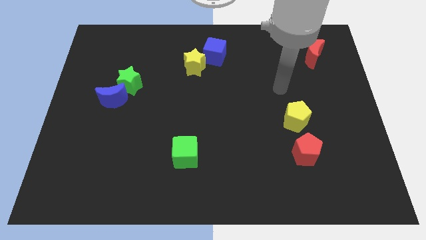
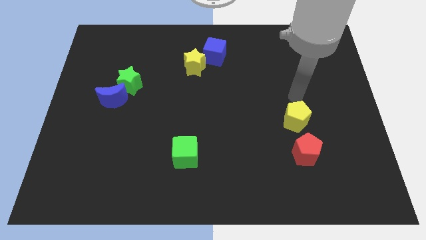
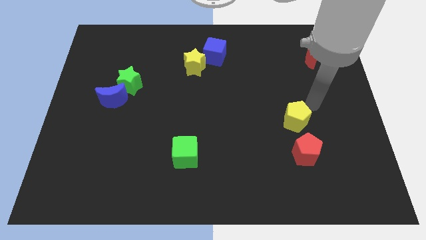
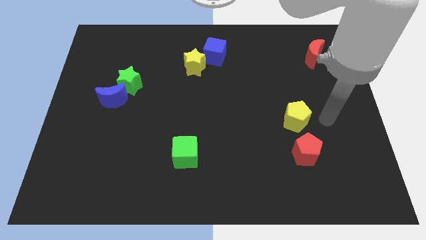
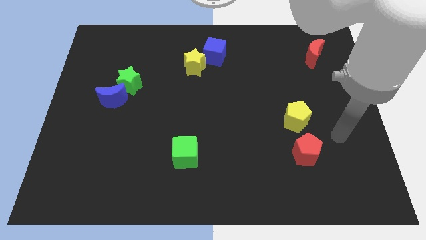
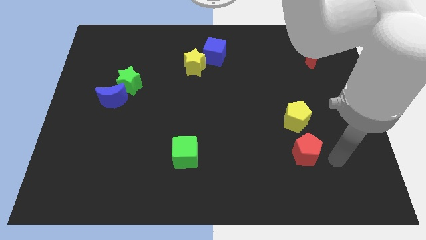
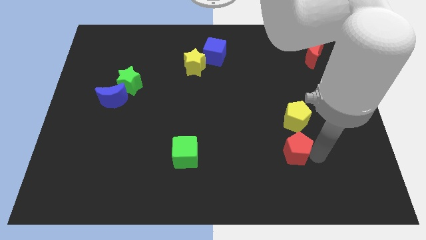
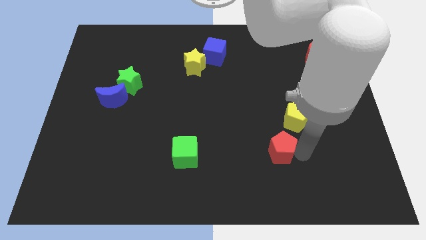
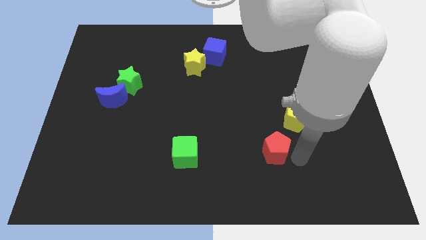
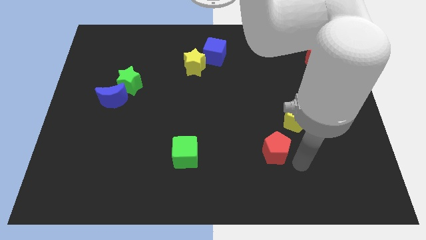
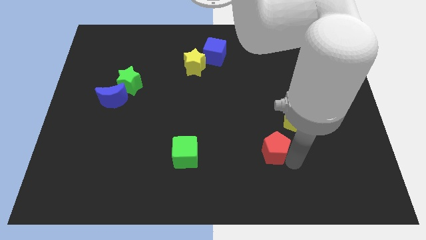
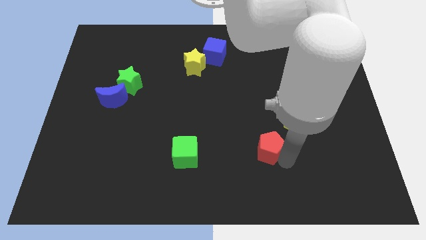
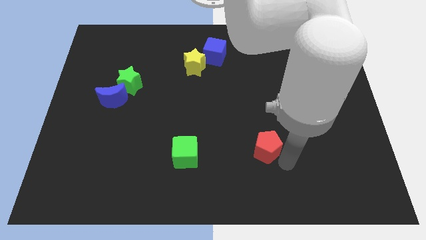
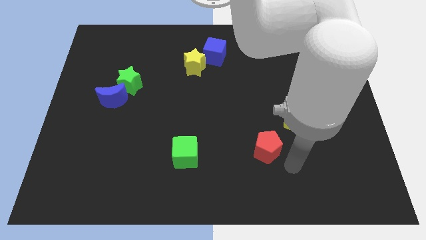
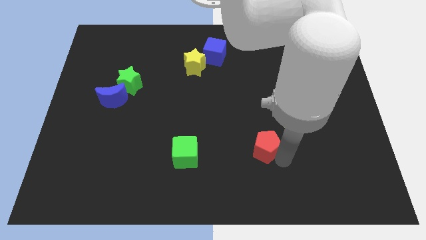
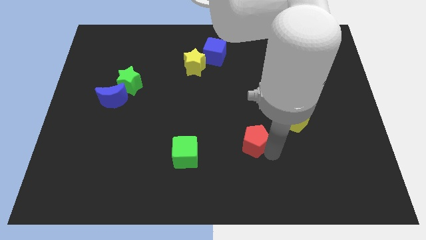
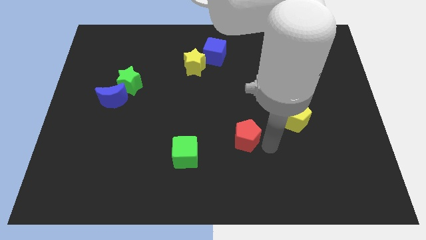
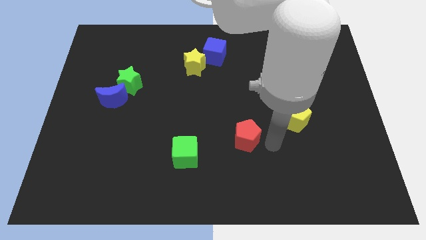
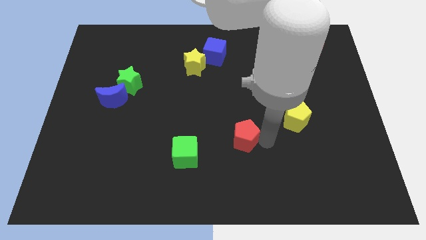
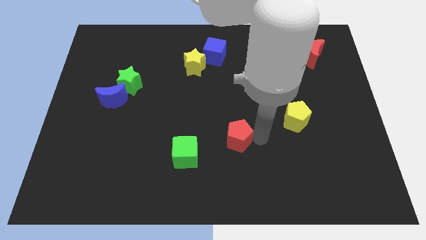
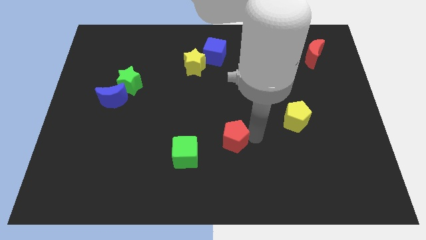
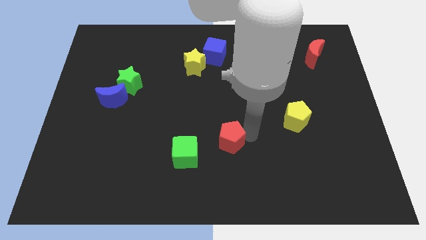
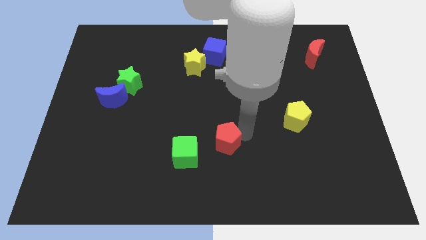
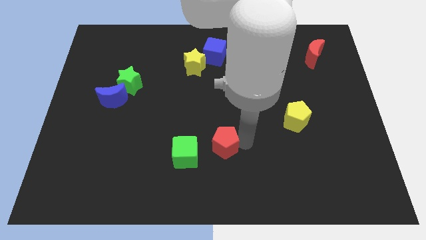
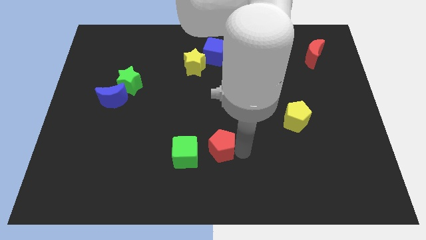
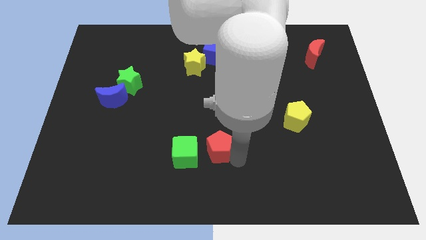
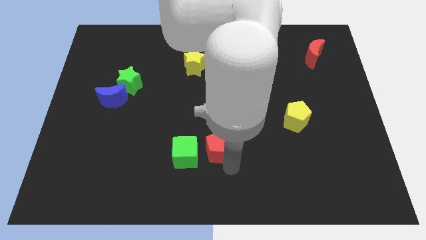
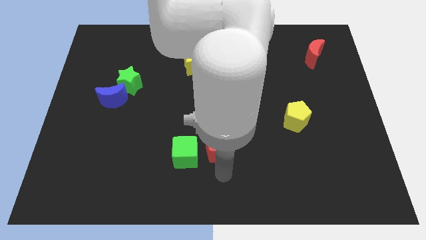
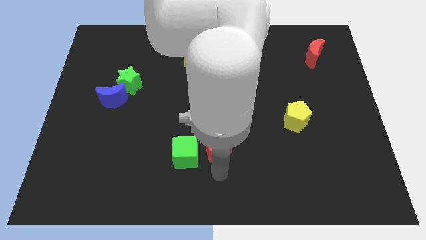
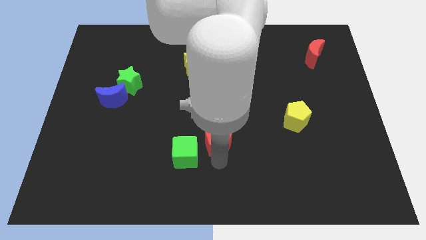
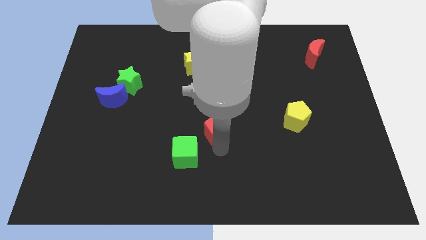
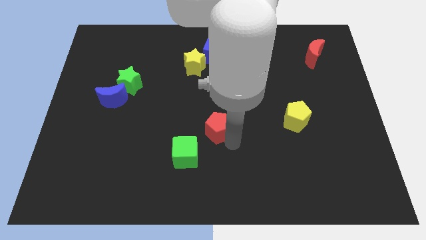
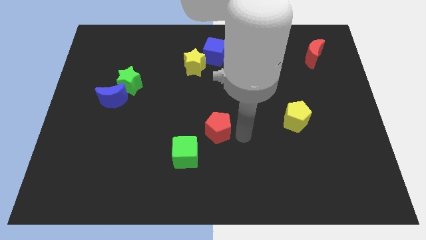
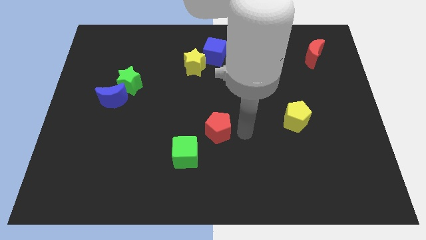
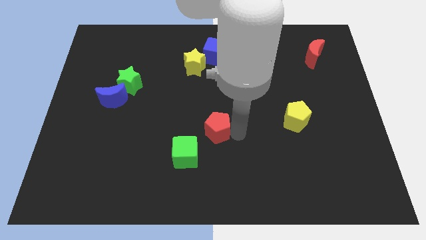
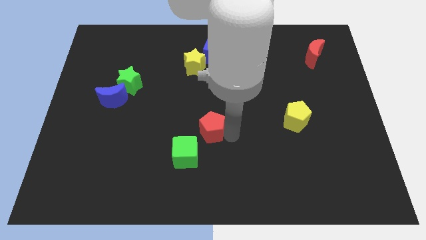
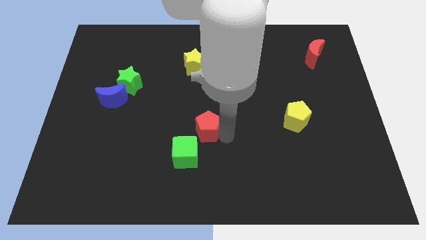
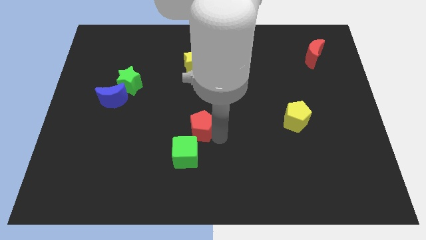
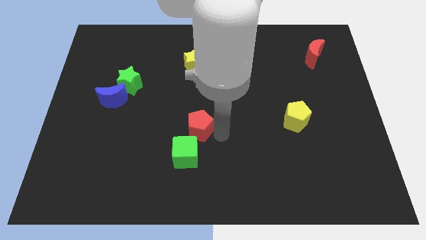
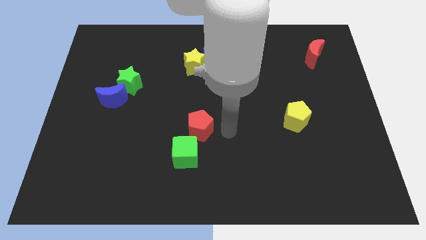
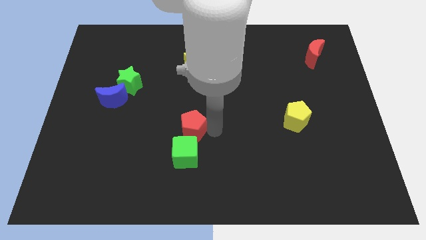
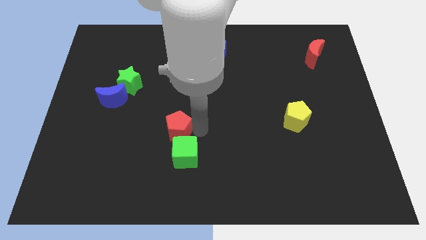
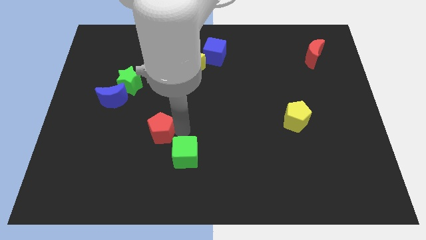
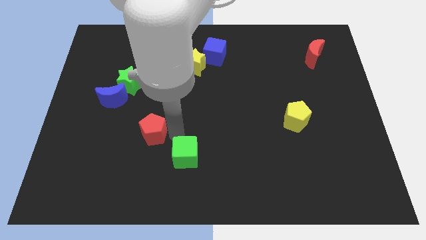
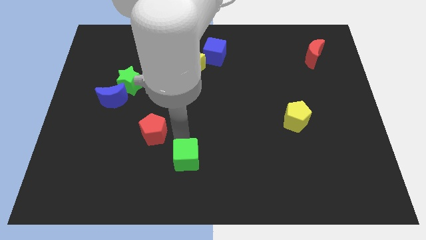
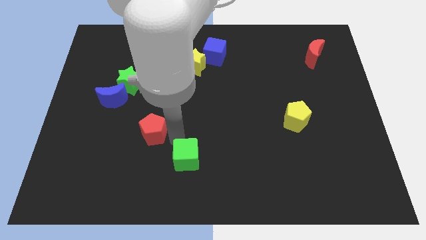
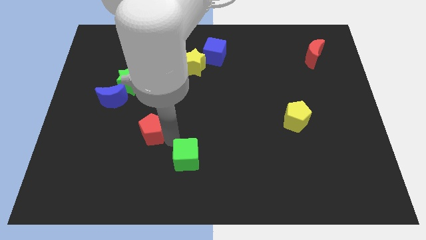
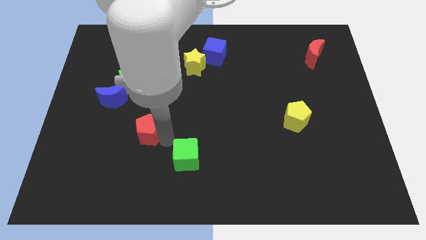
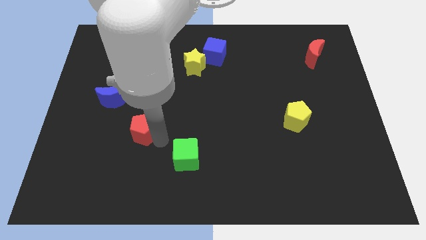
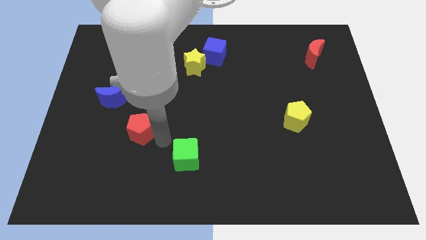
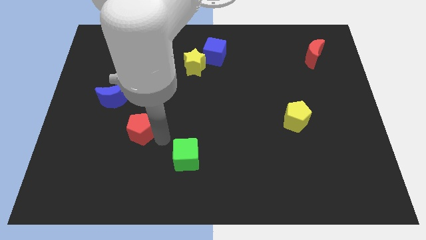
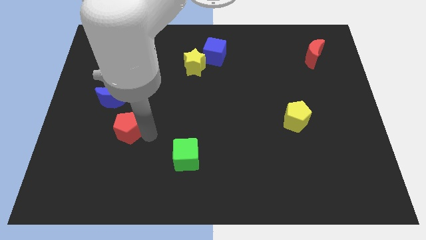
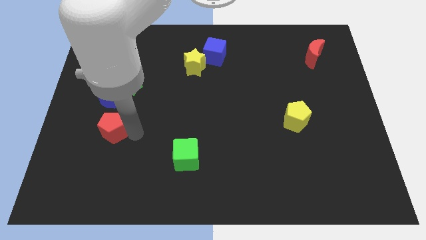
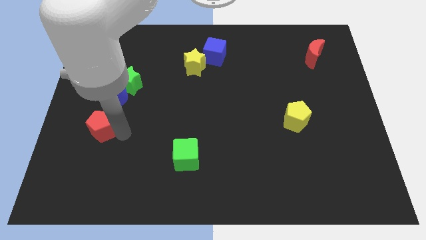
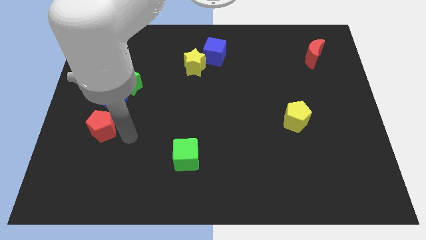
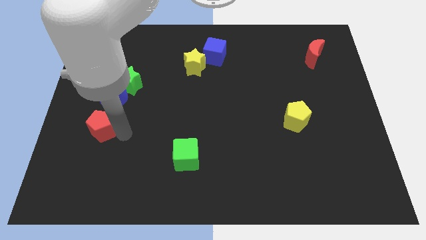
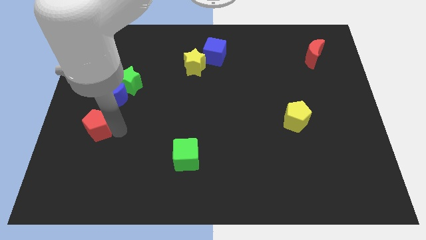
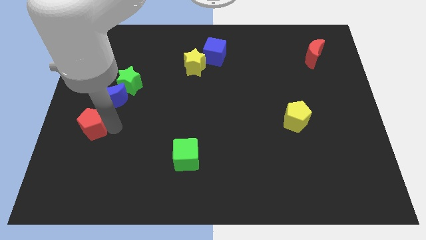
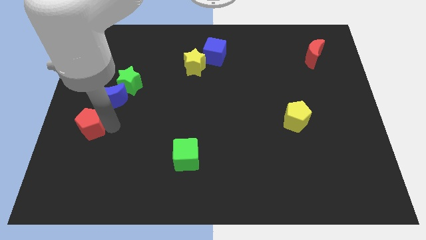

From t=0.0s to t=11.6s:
put the red pentagon to the center left

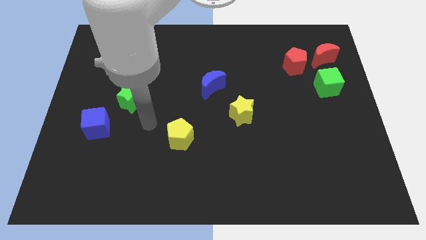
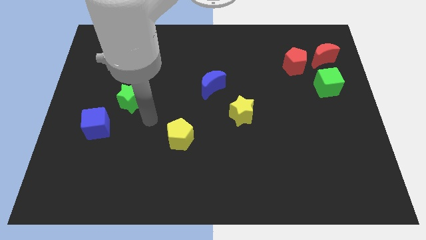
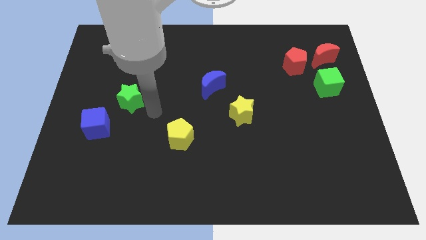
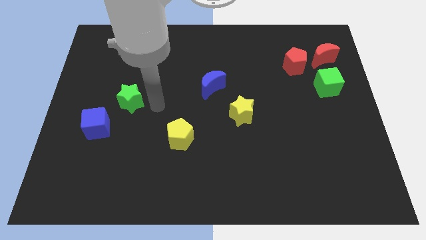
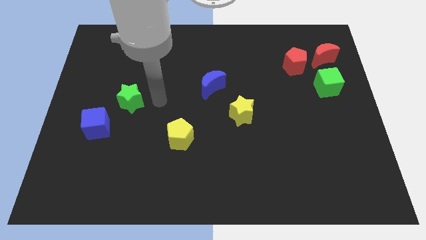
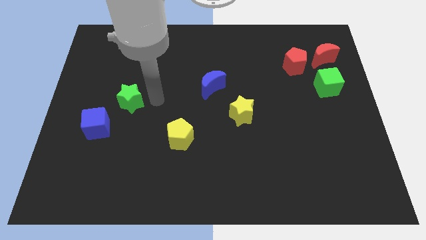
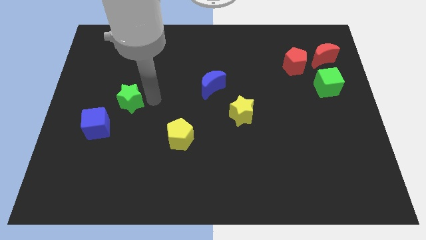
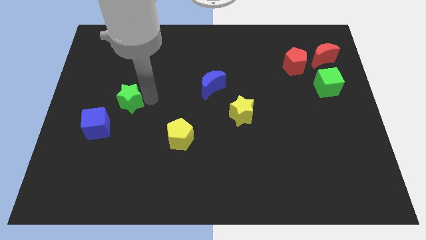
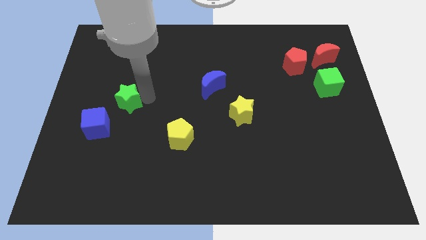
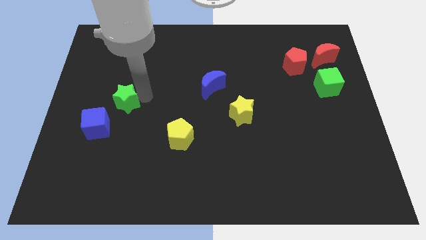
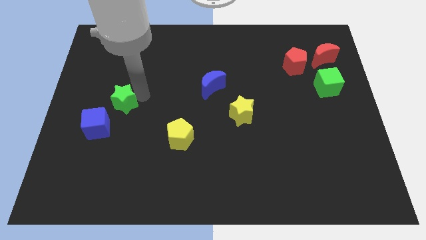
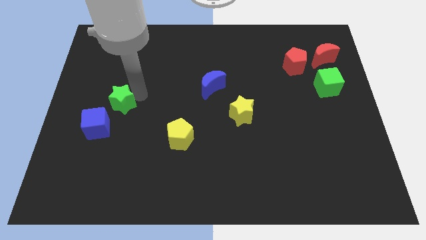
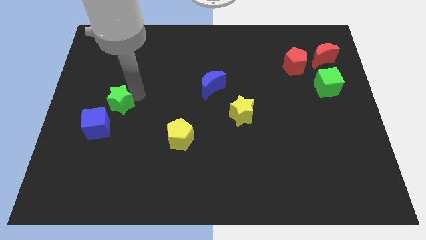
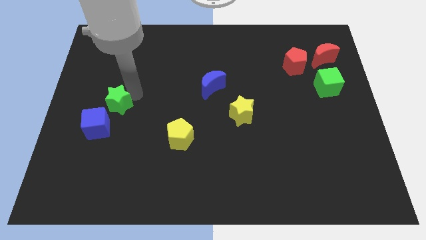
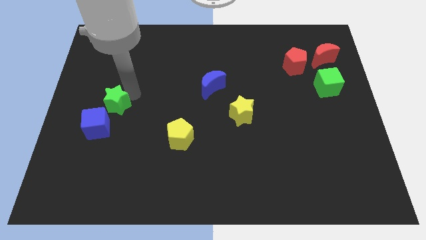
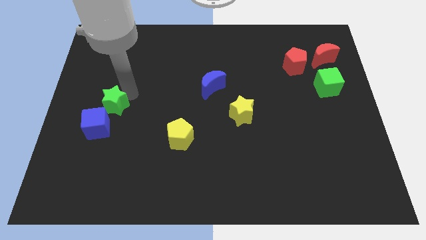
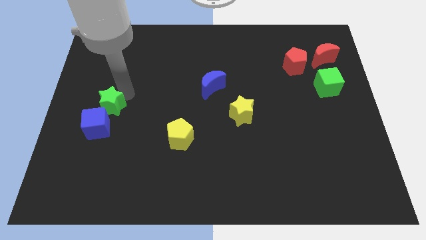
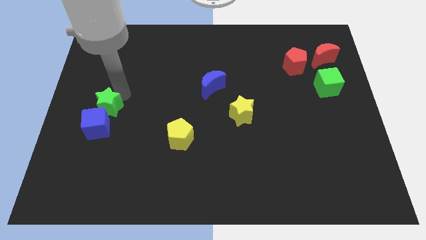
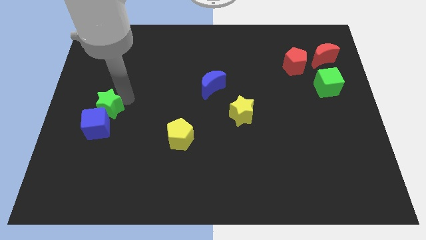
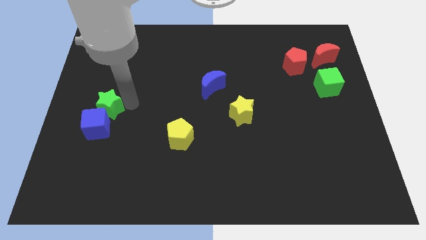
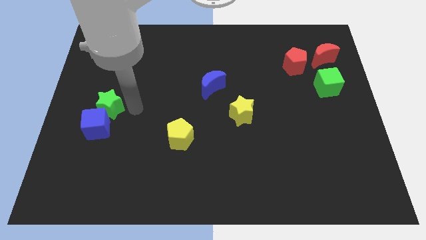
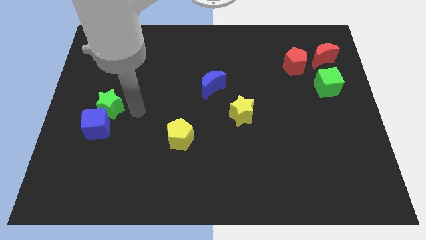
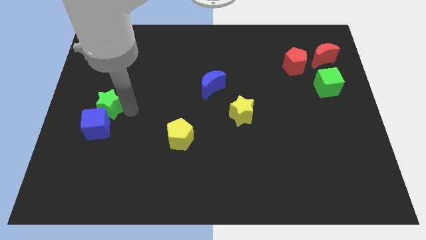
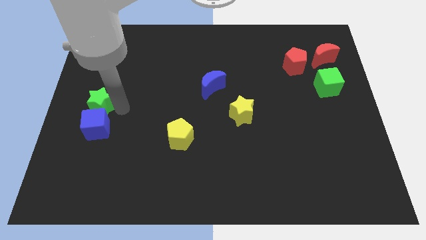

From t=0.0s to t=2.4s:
slide the green star to the center left
